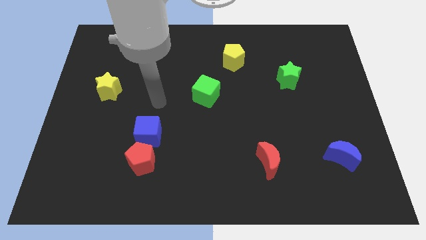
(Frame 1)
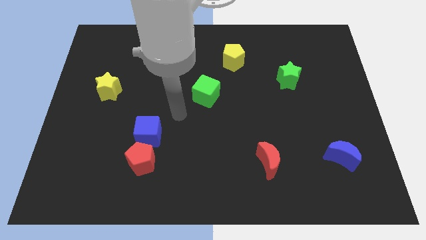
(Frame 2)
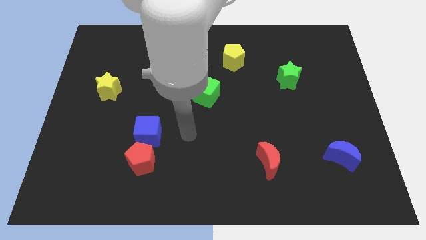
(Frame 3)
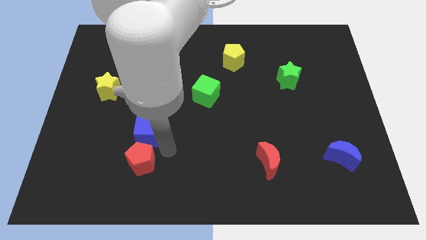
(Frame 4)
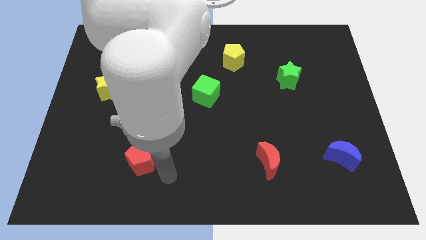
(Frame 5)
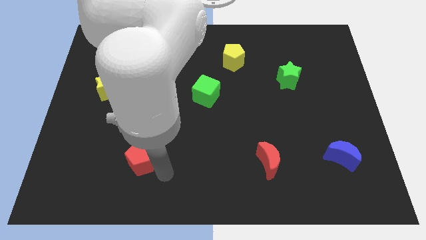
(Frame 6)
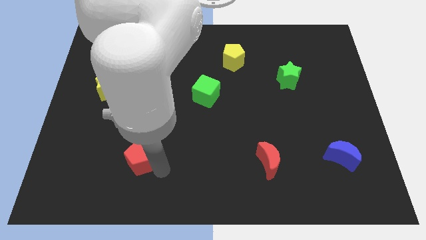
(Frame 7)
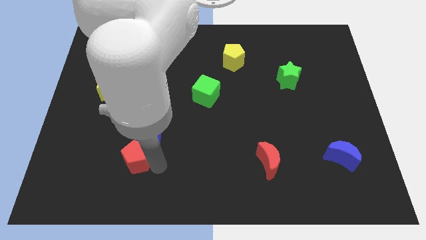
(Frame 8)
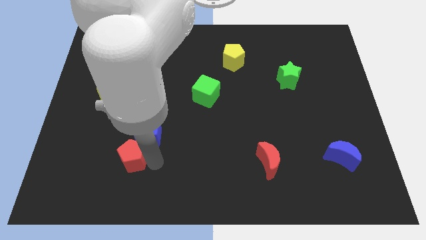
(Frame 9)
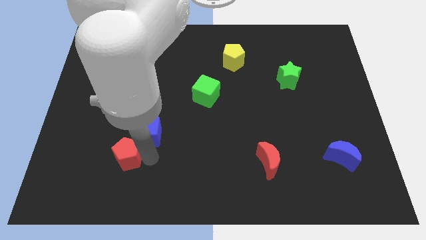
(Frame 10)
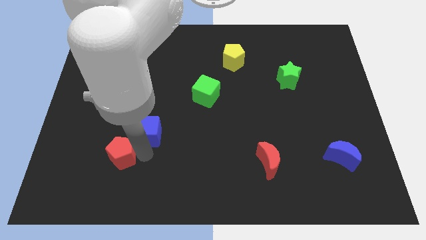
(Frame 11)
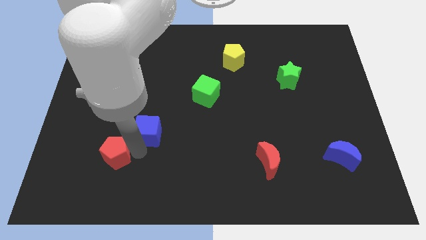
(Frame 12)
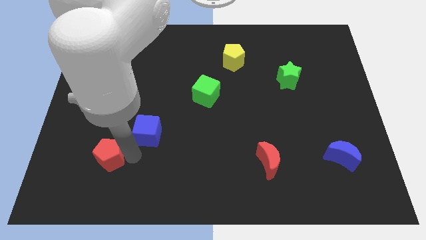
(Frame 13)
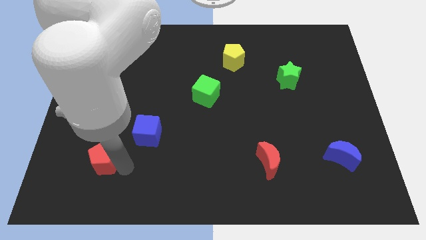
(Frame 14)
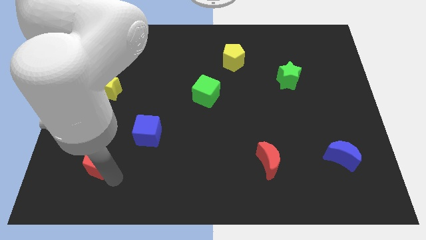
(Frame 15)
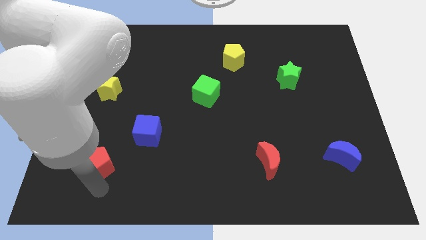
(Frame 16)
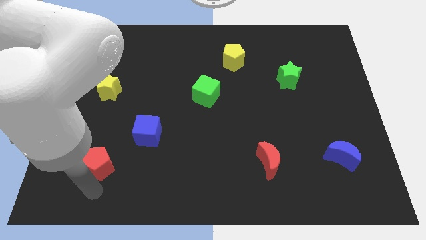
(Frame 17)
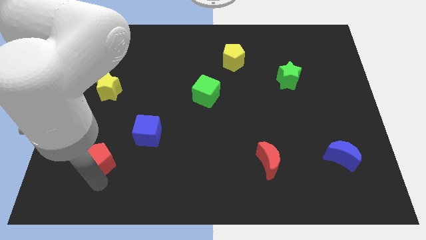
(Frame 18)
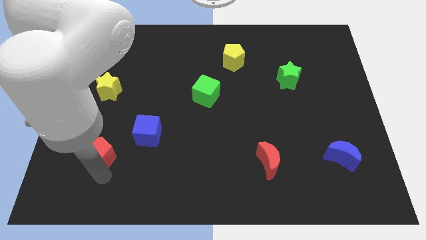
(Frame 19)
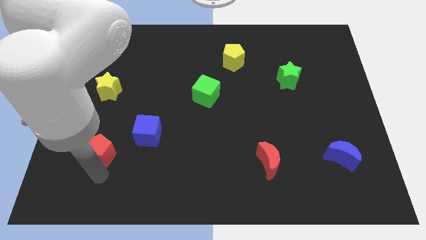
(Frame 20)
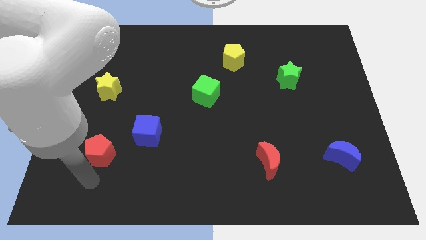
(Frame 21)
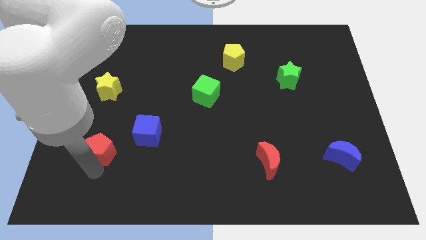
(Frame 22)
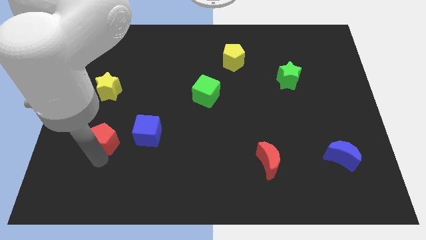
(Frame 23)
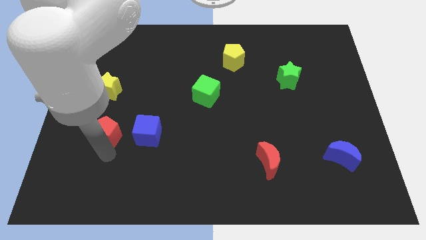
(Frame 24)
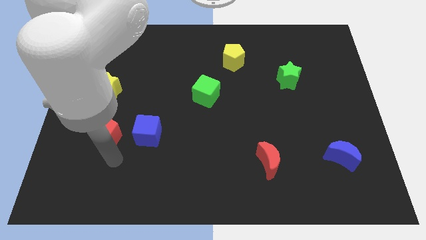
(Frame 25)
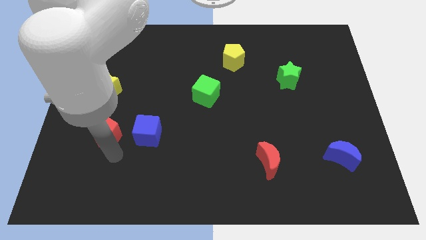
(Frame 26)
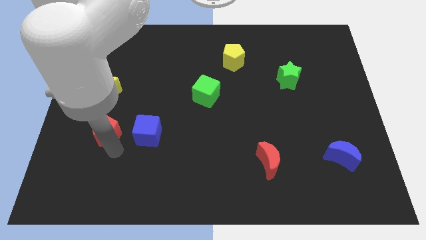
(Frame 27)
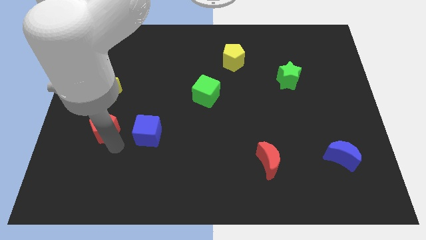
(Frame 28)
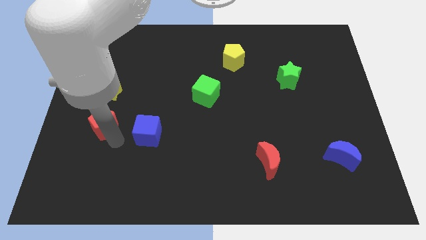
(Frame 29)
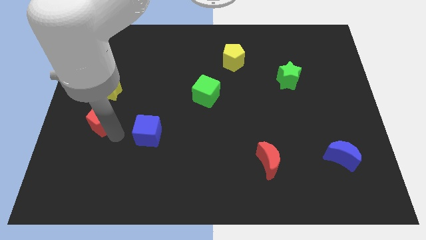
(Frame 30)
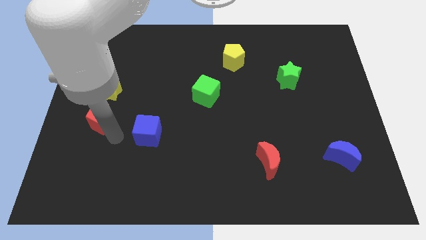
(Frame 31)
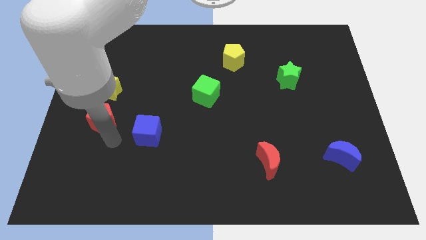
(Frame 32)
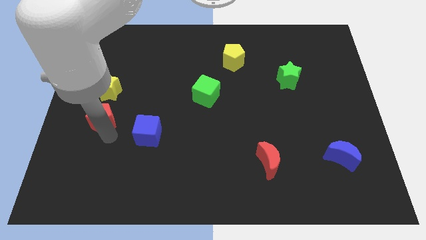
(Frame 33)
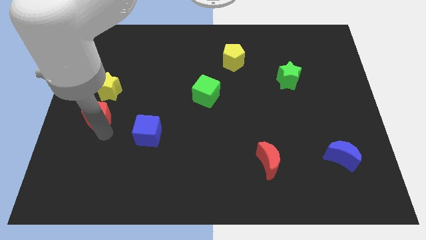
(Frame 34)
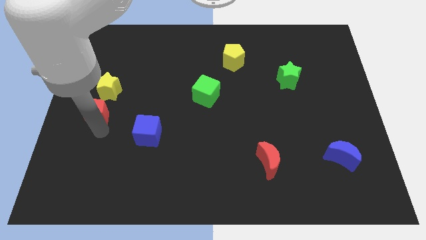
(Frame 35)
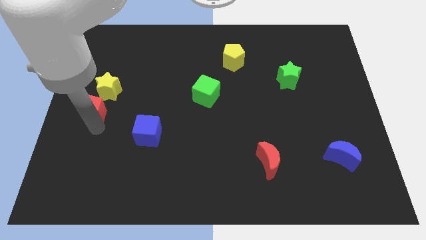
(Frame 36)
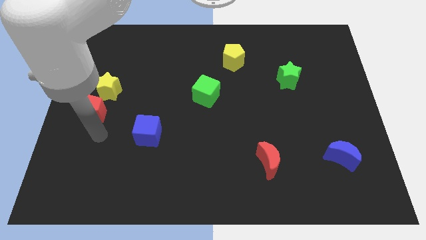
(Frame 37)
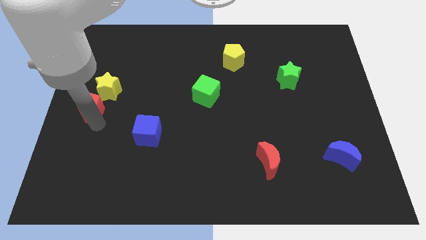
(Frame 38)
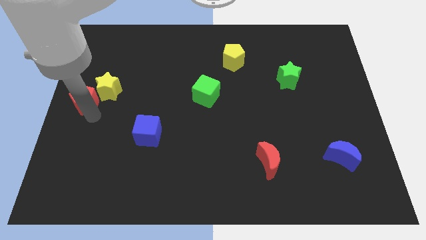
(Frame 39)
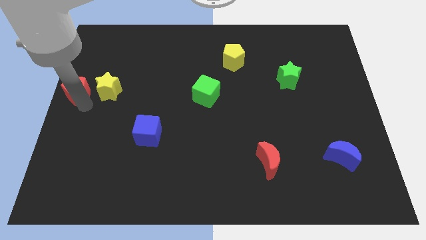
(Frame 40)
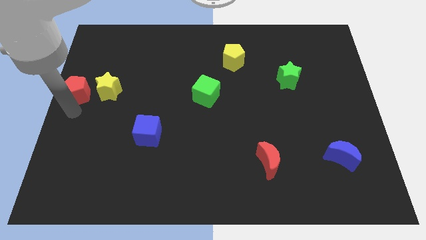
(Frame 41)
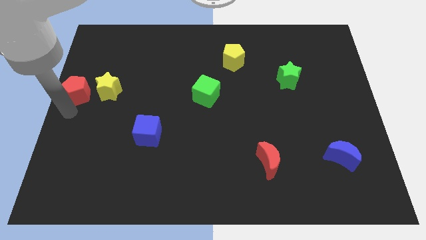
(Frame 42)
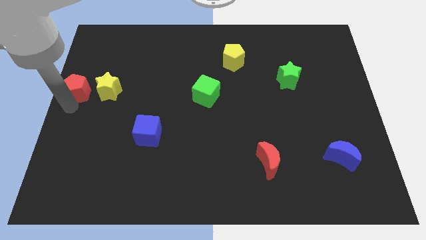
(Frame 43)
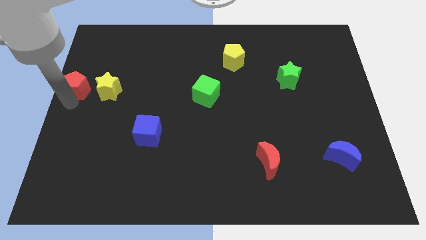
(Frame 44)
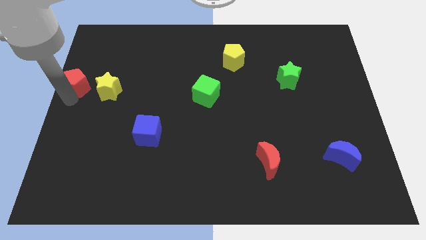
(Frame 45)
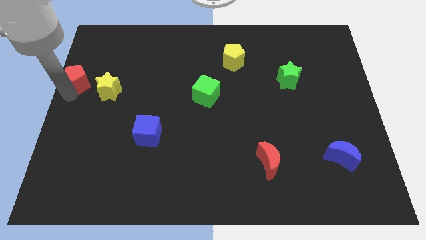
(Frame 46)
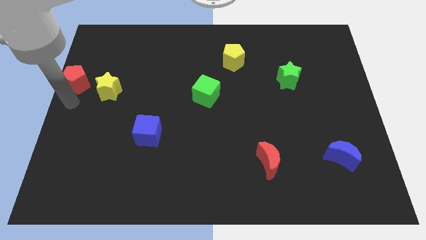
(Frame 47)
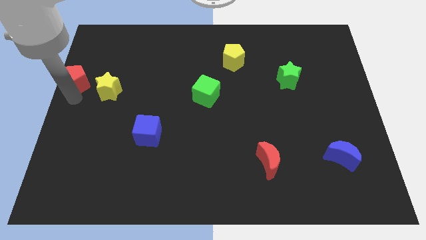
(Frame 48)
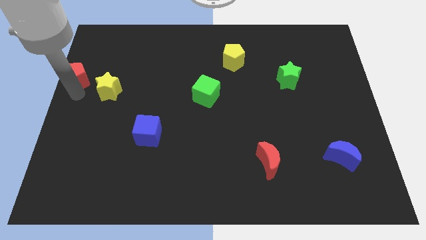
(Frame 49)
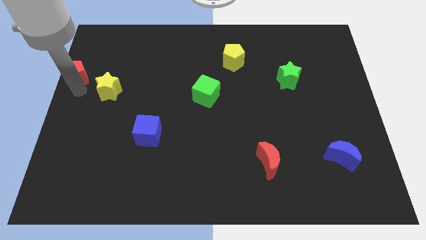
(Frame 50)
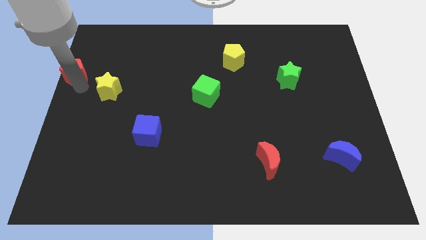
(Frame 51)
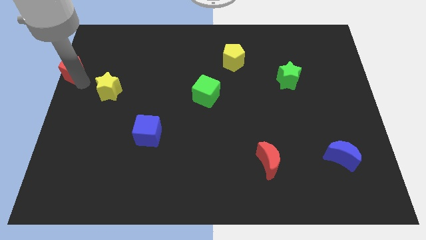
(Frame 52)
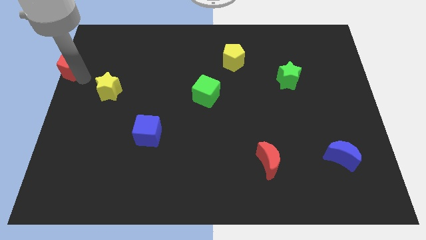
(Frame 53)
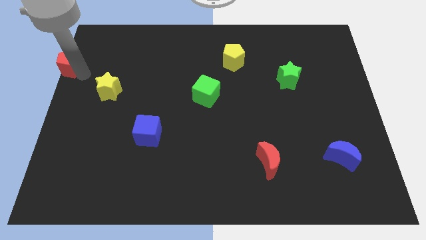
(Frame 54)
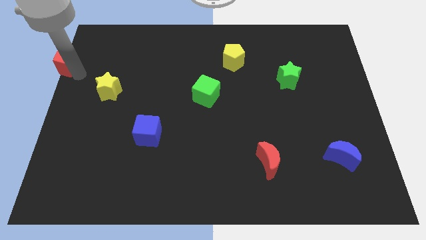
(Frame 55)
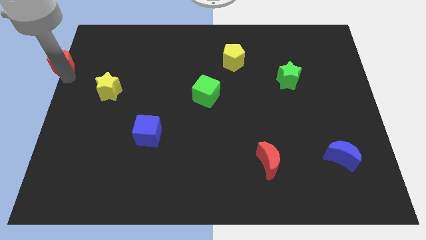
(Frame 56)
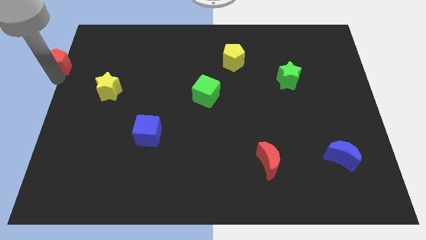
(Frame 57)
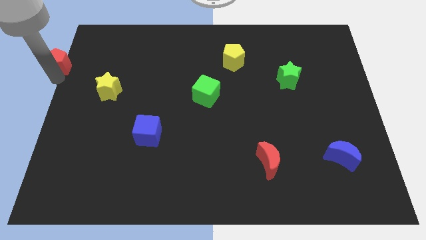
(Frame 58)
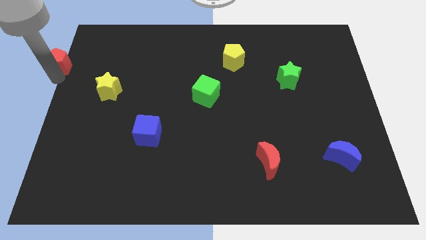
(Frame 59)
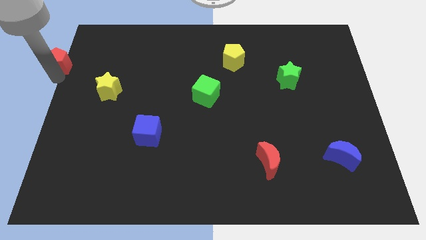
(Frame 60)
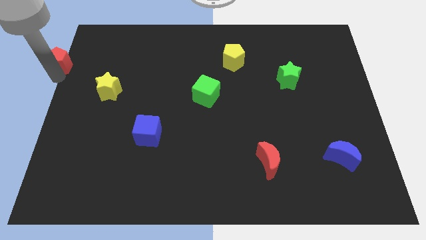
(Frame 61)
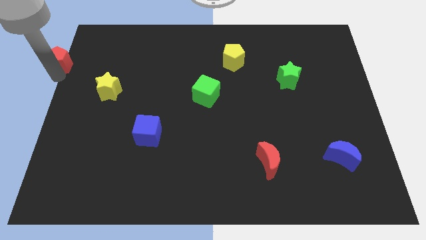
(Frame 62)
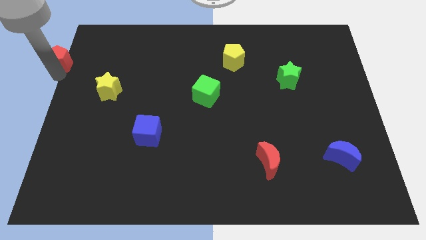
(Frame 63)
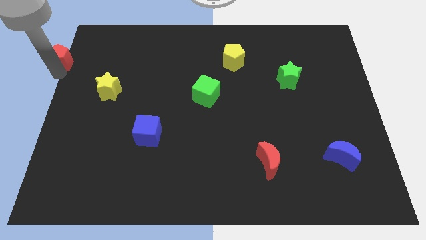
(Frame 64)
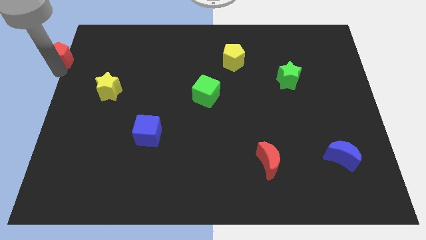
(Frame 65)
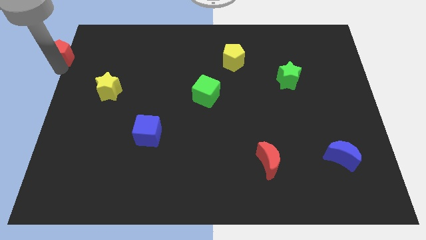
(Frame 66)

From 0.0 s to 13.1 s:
move the red pentagon to the top left
